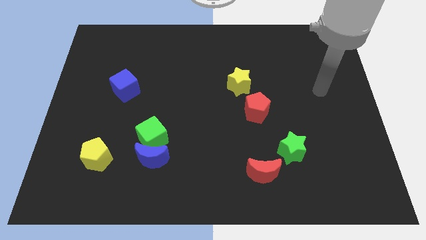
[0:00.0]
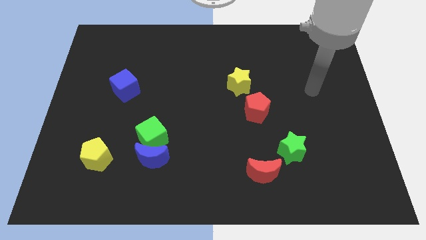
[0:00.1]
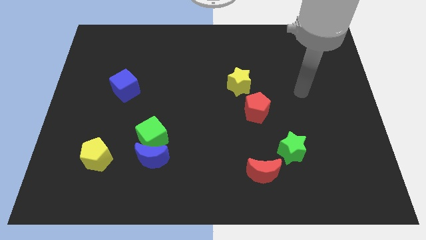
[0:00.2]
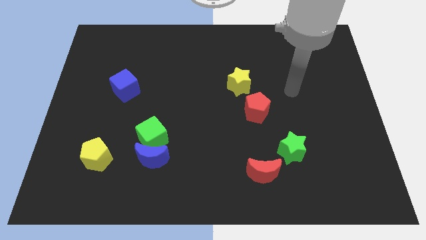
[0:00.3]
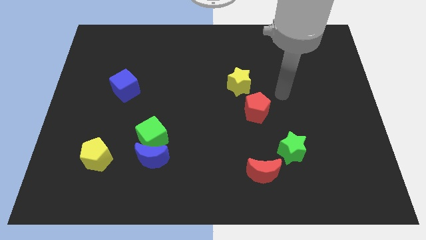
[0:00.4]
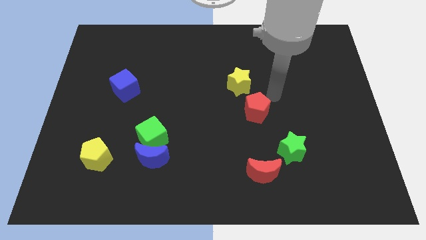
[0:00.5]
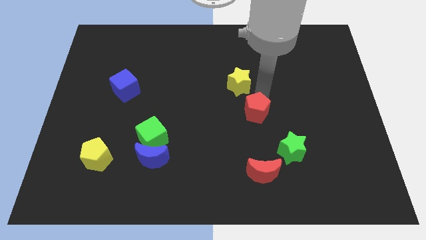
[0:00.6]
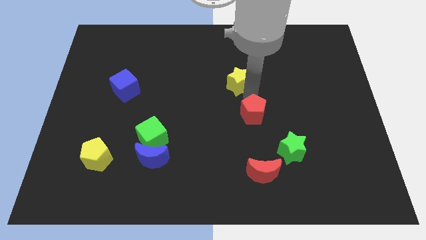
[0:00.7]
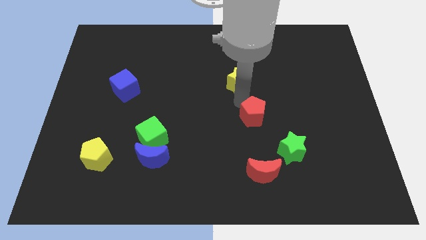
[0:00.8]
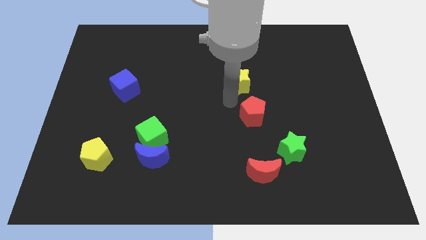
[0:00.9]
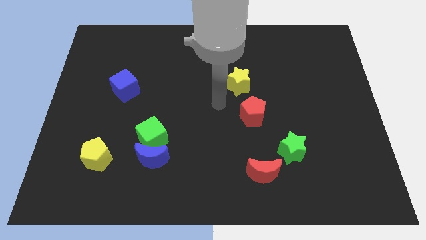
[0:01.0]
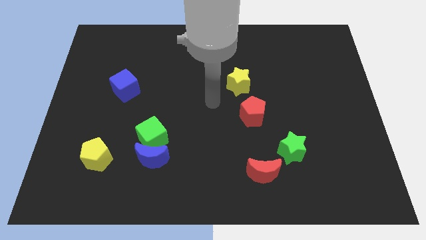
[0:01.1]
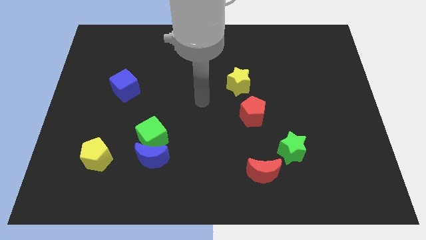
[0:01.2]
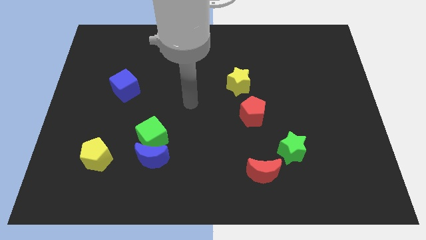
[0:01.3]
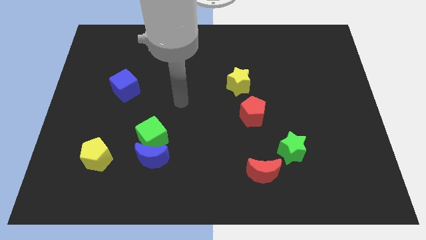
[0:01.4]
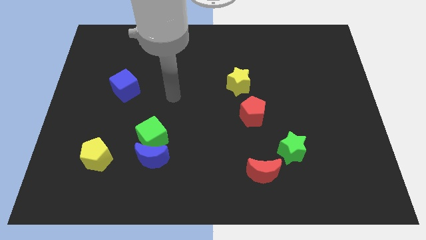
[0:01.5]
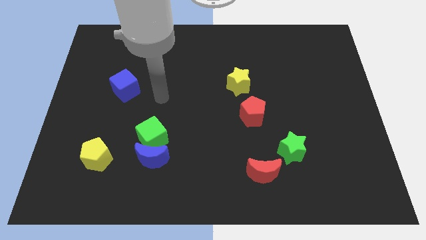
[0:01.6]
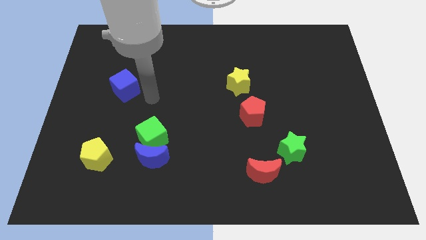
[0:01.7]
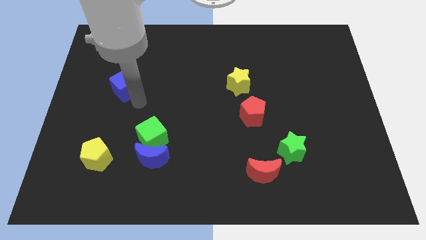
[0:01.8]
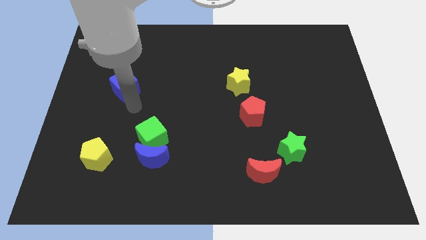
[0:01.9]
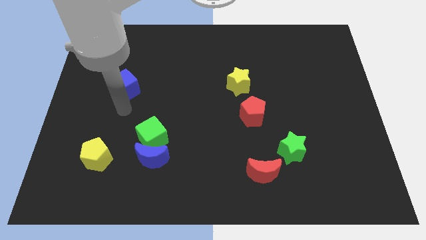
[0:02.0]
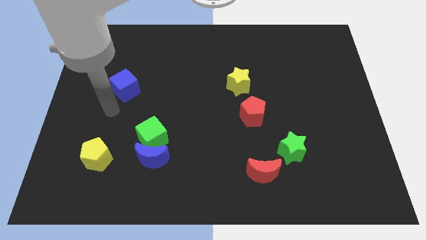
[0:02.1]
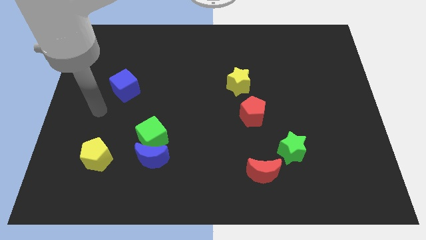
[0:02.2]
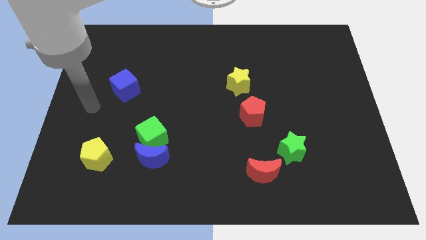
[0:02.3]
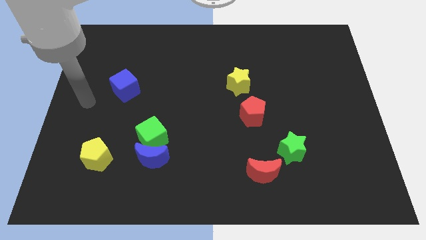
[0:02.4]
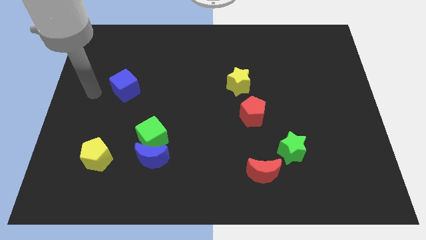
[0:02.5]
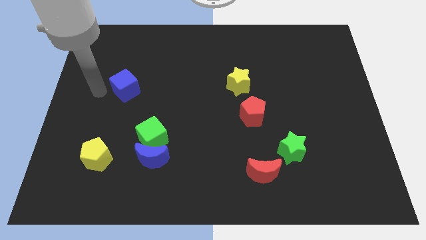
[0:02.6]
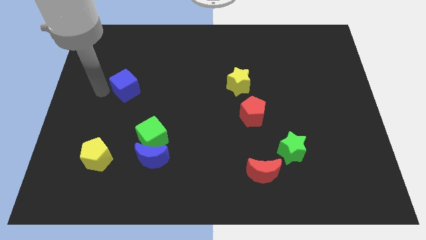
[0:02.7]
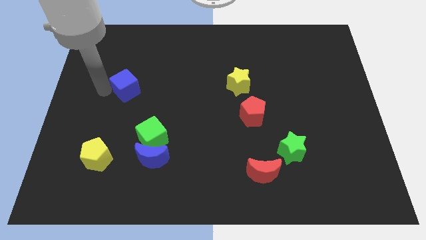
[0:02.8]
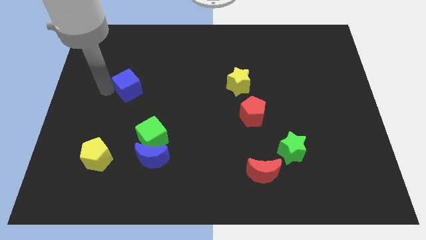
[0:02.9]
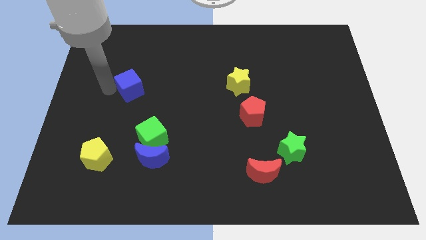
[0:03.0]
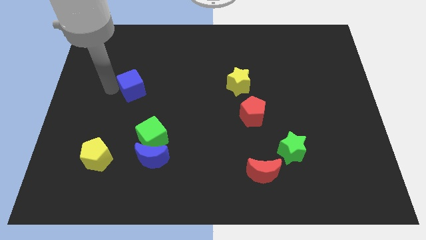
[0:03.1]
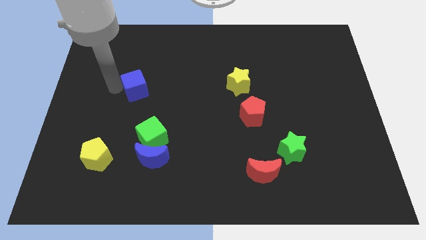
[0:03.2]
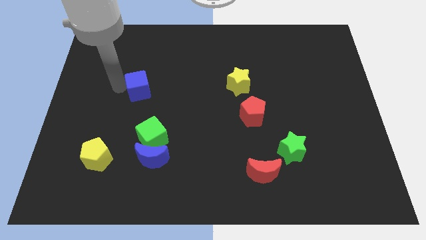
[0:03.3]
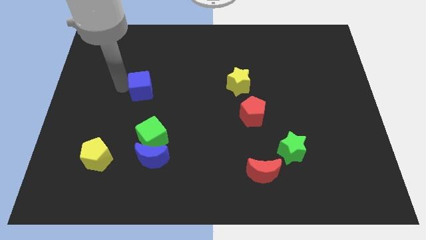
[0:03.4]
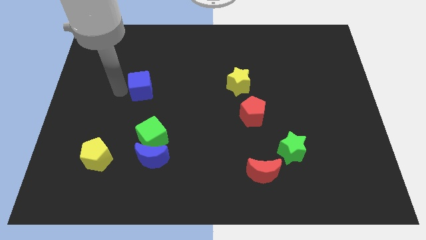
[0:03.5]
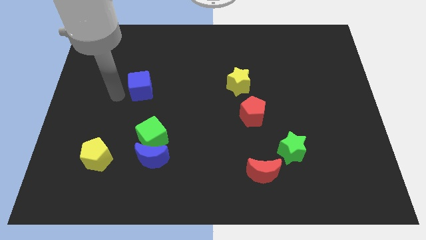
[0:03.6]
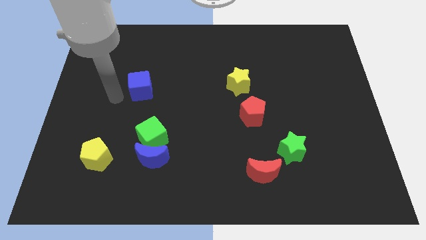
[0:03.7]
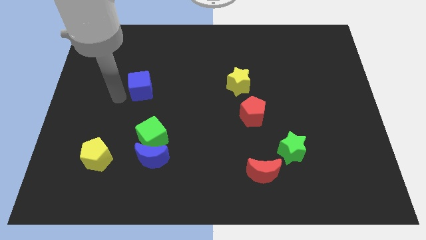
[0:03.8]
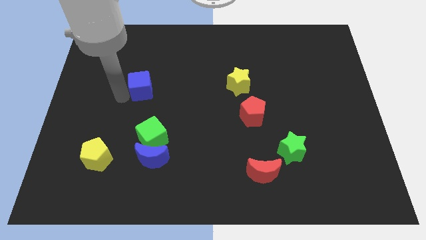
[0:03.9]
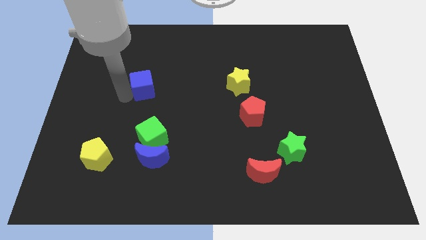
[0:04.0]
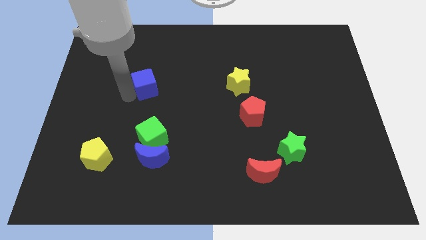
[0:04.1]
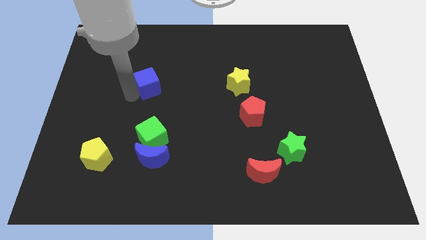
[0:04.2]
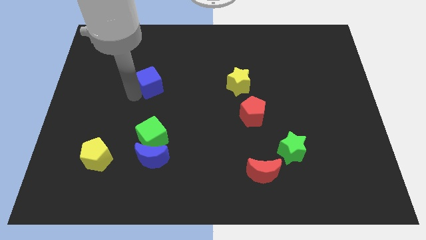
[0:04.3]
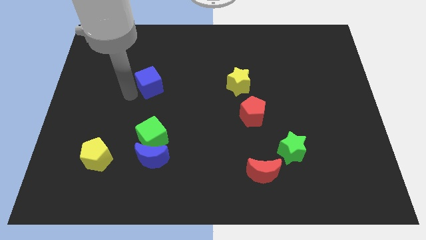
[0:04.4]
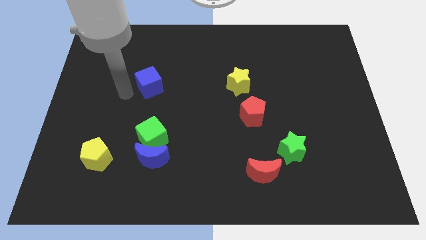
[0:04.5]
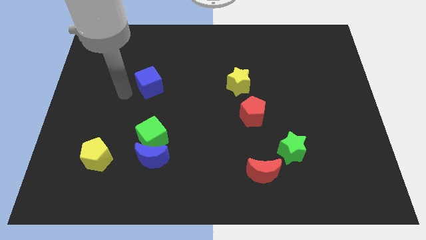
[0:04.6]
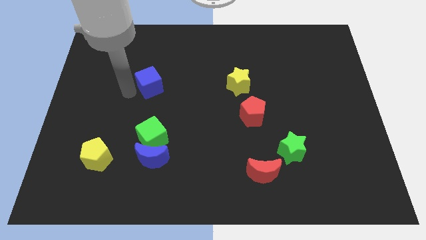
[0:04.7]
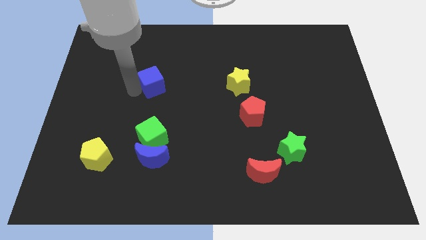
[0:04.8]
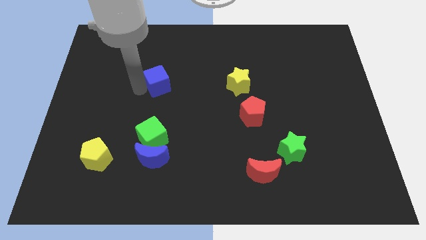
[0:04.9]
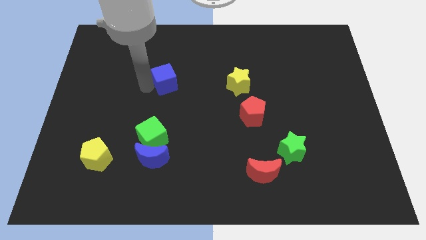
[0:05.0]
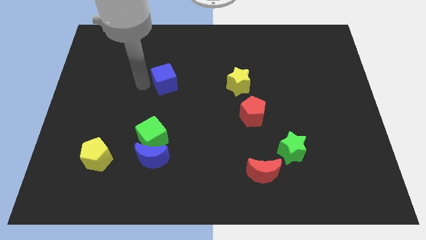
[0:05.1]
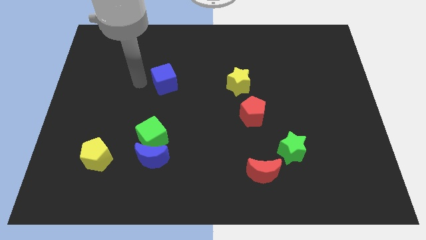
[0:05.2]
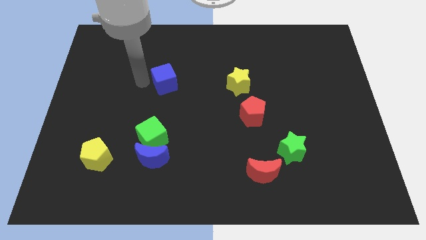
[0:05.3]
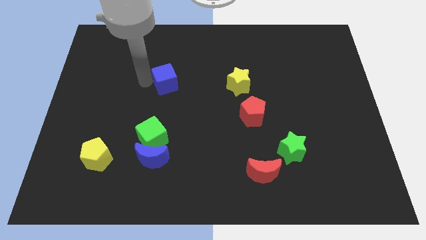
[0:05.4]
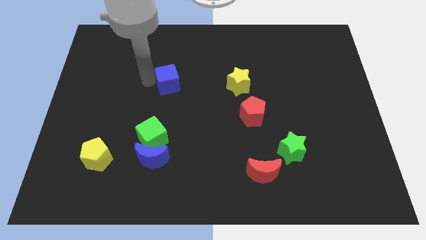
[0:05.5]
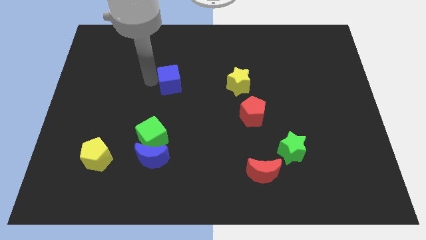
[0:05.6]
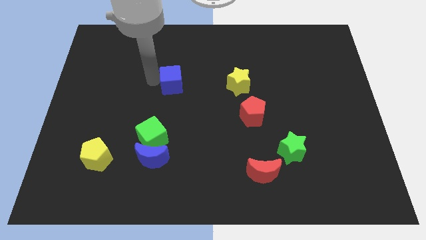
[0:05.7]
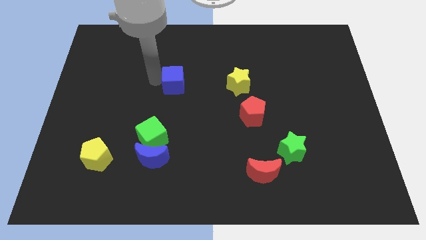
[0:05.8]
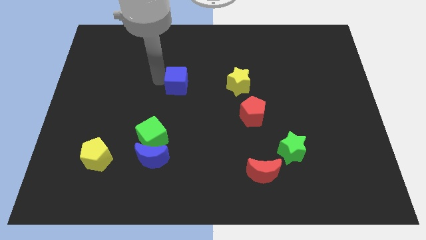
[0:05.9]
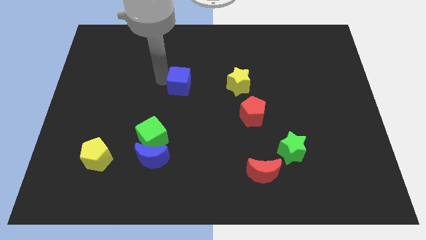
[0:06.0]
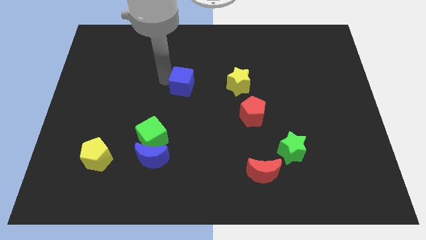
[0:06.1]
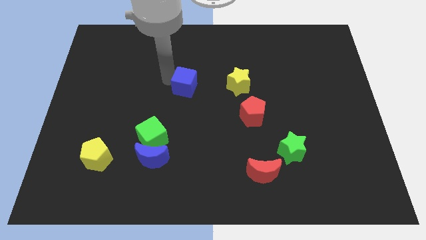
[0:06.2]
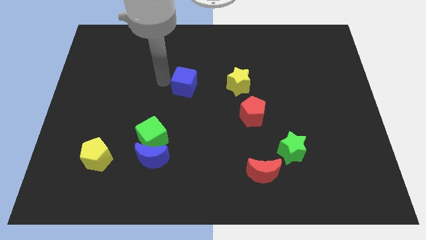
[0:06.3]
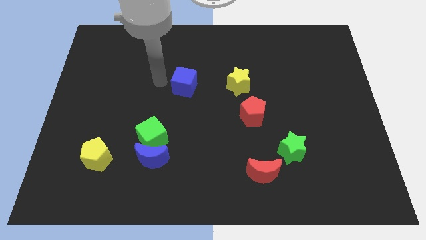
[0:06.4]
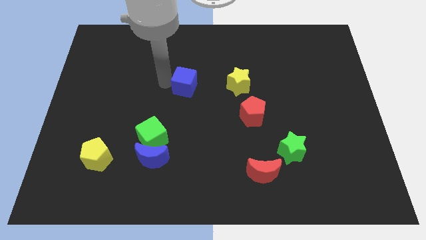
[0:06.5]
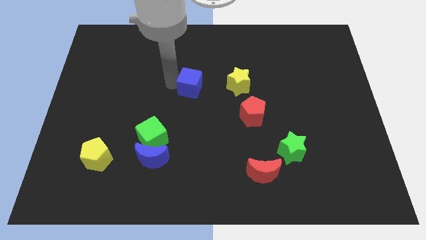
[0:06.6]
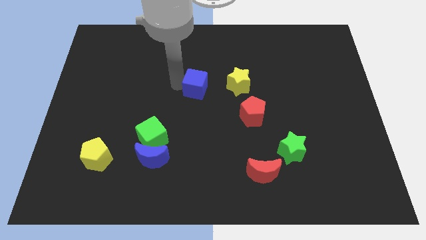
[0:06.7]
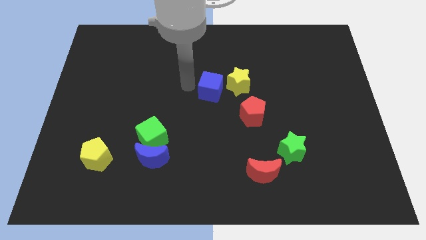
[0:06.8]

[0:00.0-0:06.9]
push the blue cube to the right

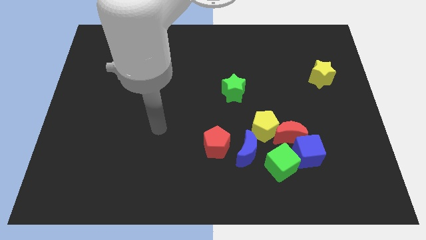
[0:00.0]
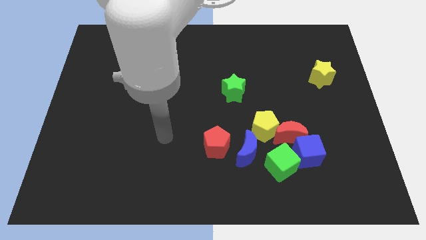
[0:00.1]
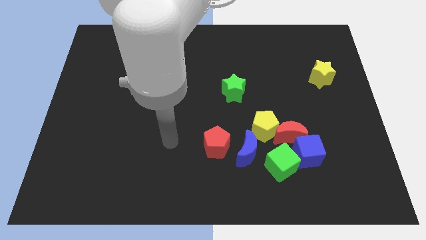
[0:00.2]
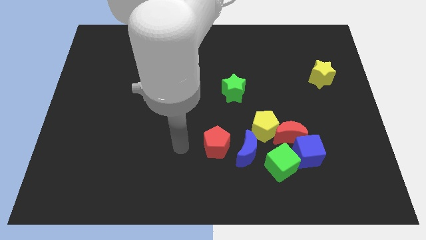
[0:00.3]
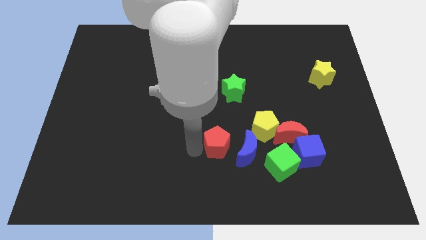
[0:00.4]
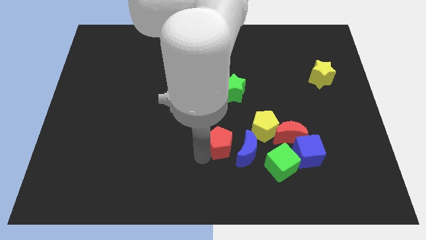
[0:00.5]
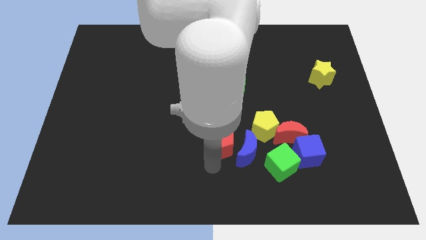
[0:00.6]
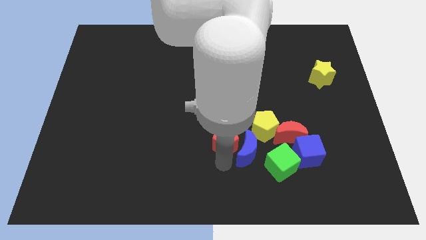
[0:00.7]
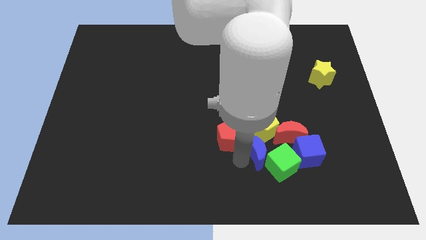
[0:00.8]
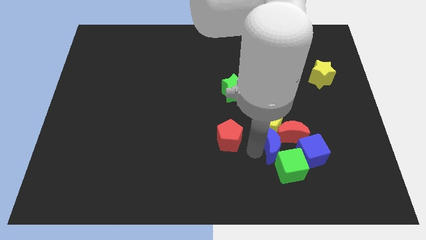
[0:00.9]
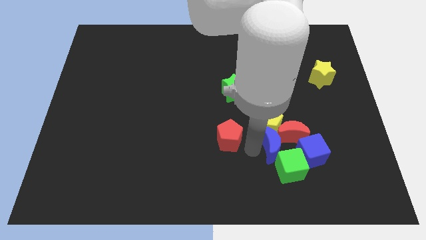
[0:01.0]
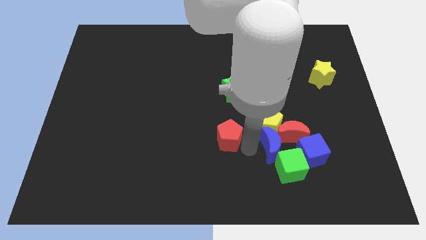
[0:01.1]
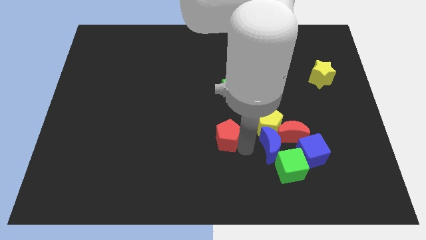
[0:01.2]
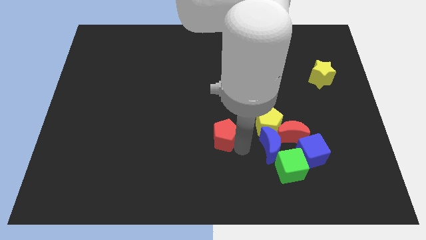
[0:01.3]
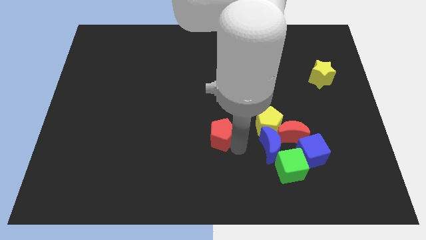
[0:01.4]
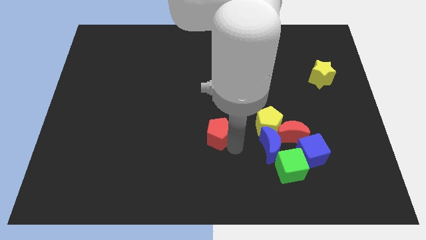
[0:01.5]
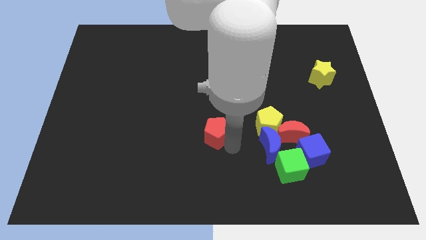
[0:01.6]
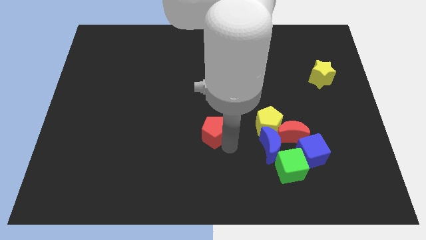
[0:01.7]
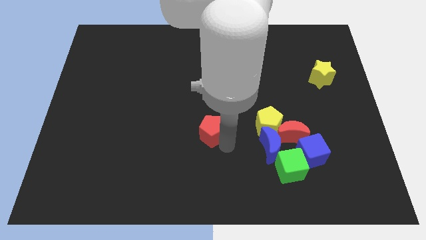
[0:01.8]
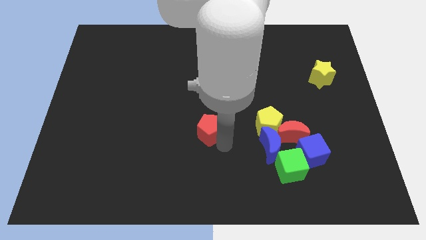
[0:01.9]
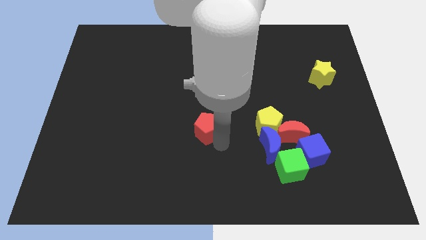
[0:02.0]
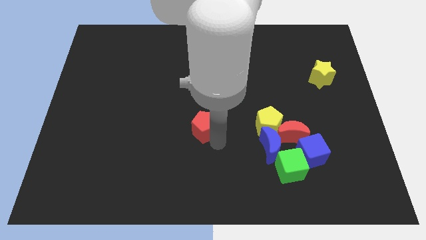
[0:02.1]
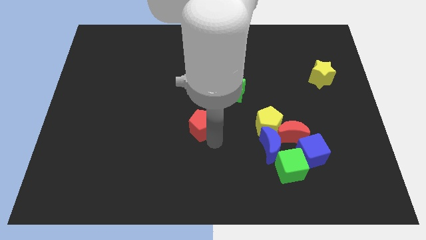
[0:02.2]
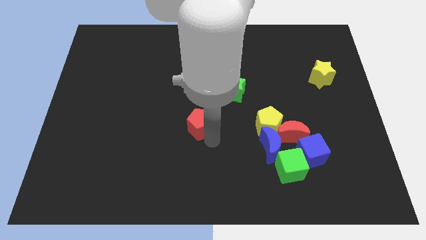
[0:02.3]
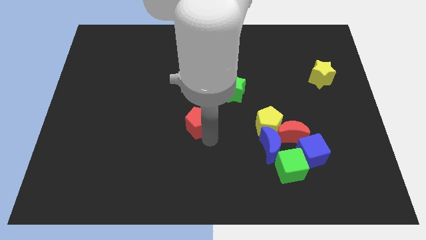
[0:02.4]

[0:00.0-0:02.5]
slightly push the red pentagon upwards and left
